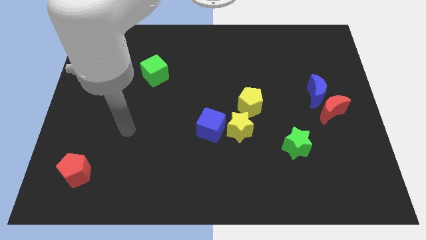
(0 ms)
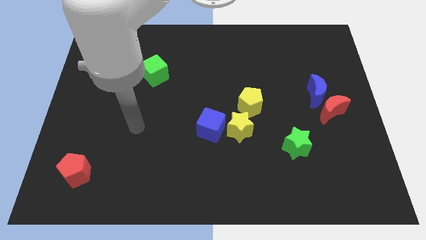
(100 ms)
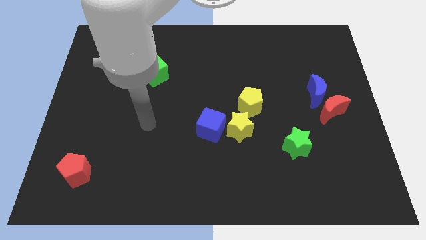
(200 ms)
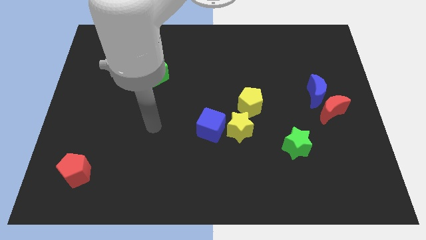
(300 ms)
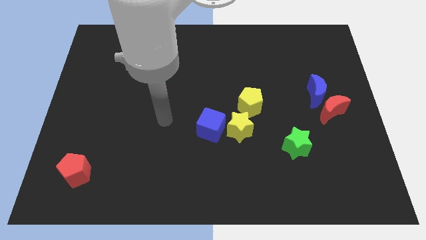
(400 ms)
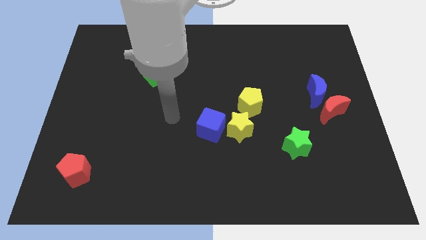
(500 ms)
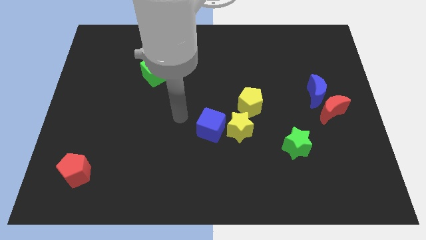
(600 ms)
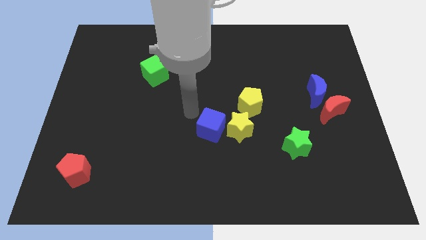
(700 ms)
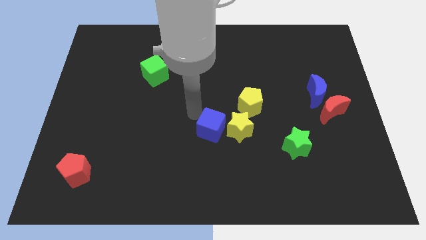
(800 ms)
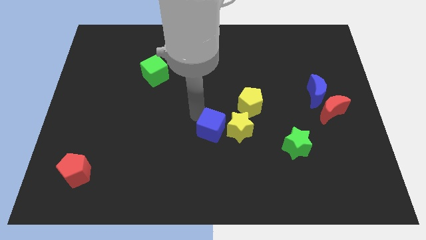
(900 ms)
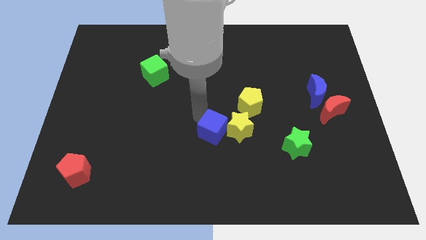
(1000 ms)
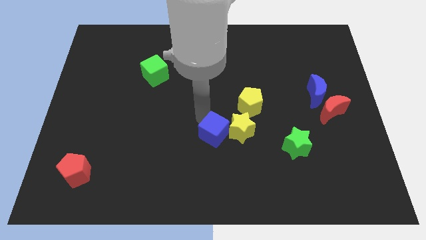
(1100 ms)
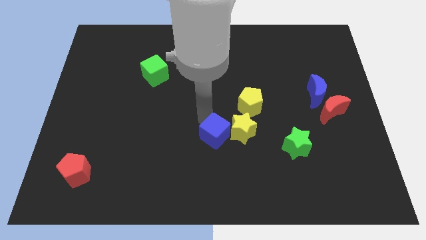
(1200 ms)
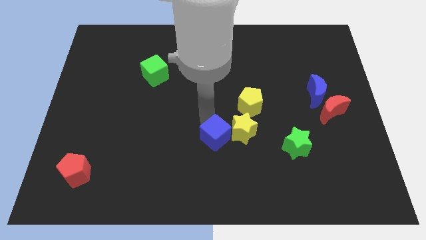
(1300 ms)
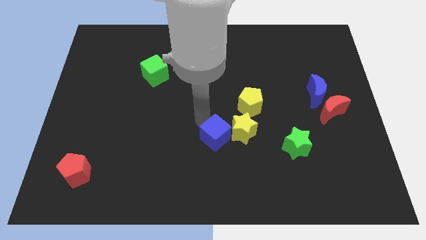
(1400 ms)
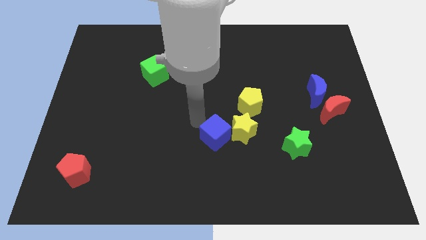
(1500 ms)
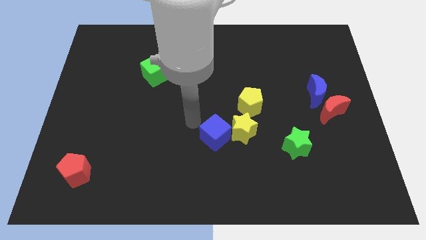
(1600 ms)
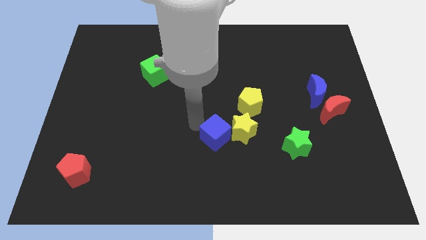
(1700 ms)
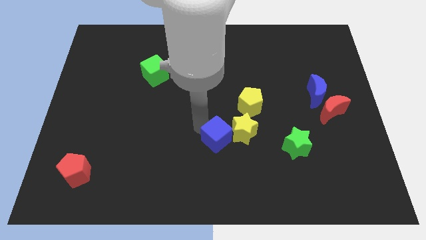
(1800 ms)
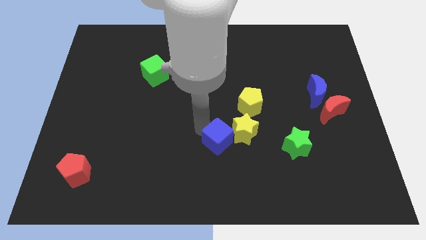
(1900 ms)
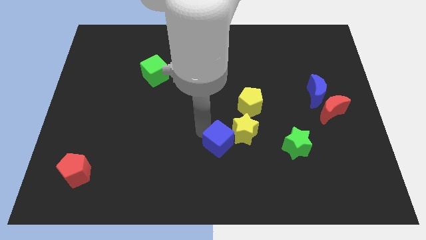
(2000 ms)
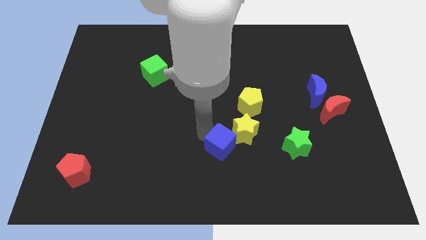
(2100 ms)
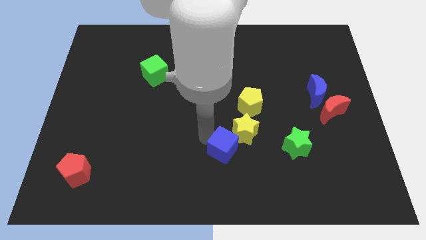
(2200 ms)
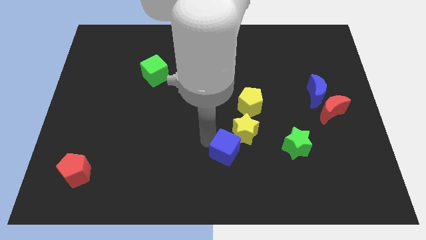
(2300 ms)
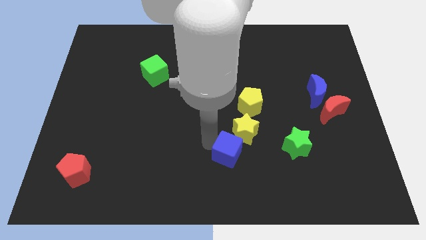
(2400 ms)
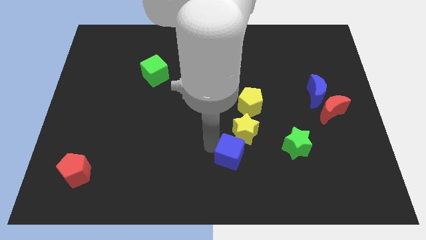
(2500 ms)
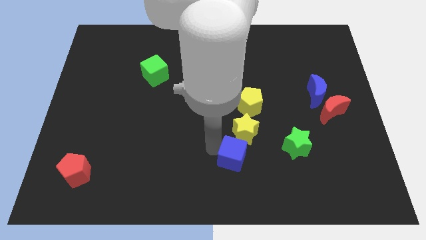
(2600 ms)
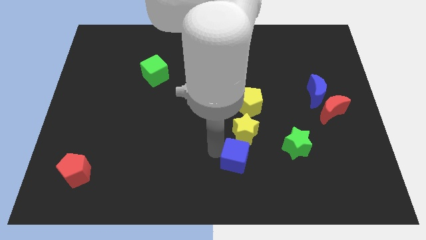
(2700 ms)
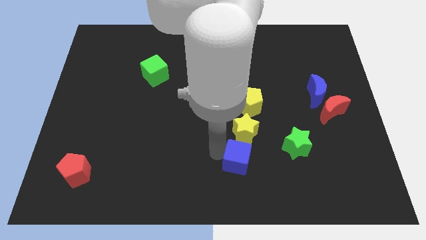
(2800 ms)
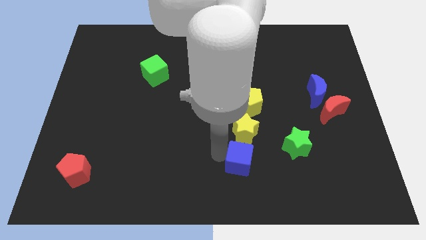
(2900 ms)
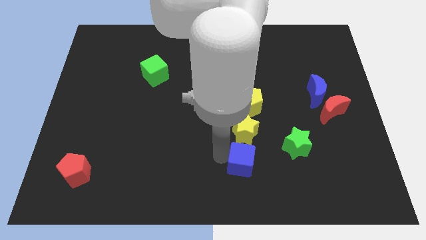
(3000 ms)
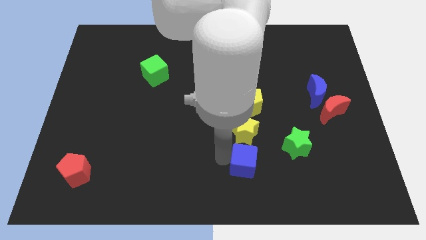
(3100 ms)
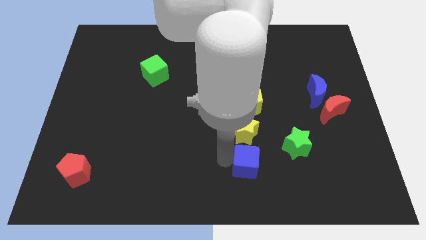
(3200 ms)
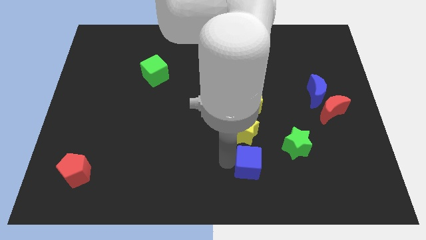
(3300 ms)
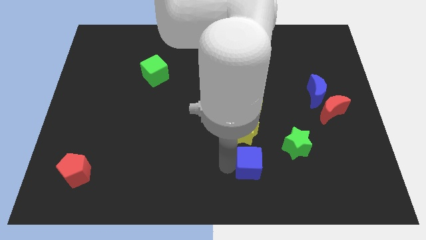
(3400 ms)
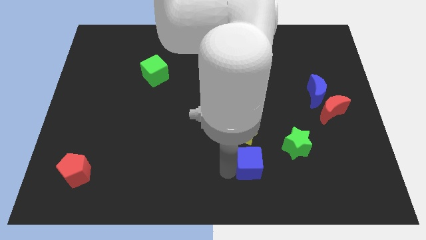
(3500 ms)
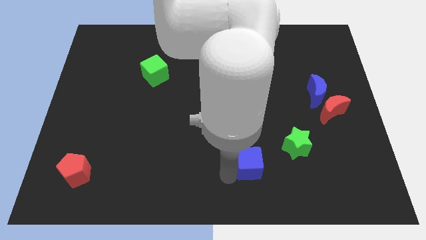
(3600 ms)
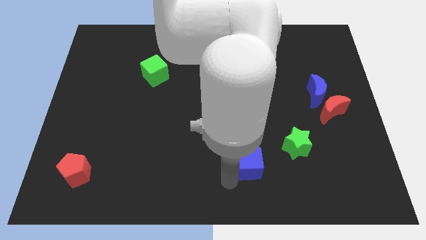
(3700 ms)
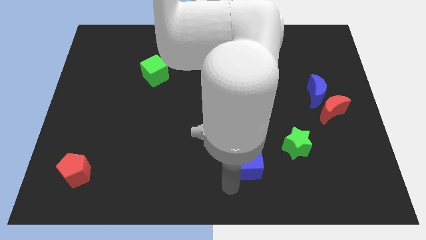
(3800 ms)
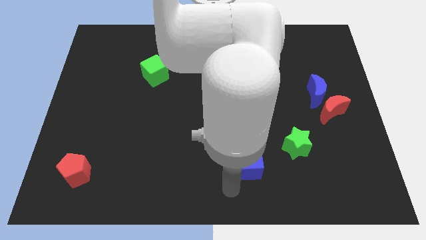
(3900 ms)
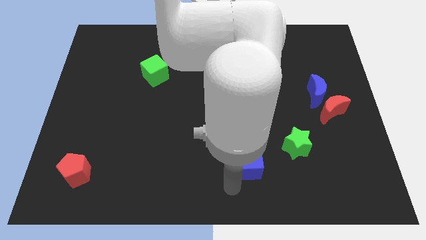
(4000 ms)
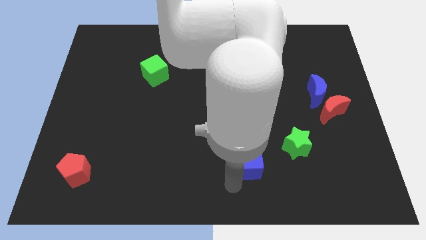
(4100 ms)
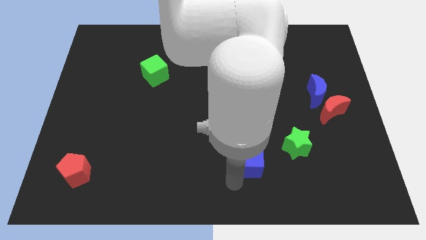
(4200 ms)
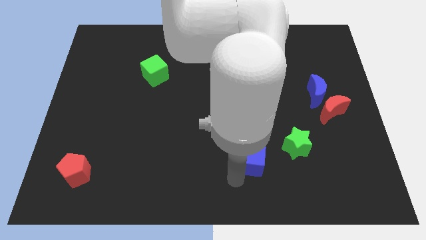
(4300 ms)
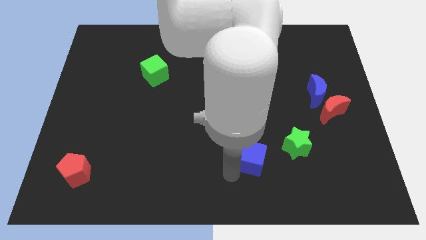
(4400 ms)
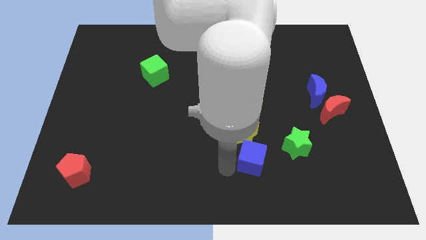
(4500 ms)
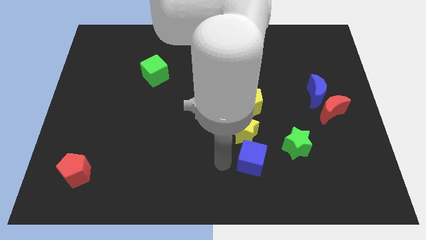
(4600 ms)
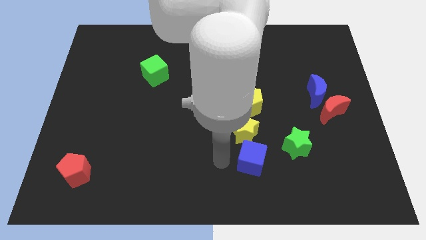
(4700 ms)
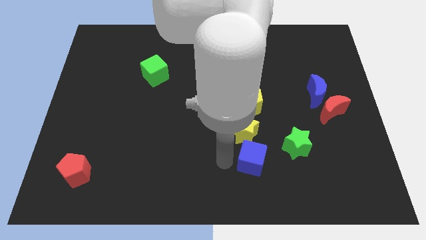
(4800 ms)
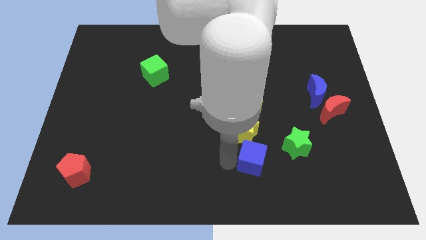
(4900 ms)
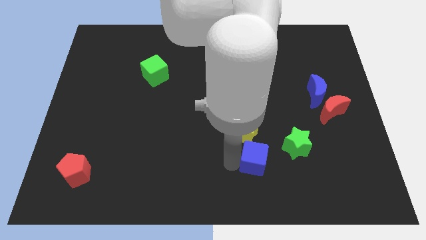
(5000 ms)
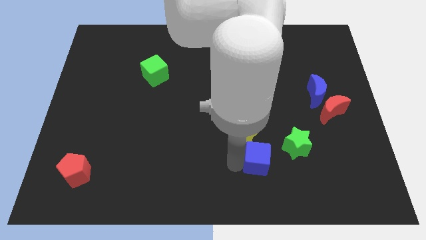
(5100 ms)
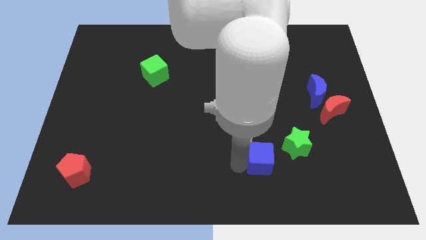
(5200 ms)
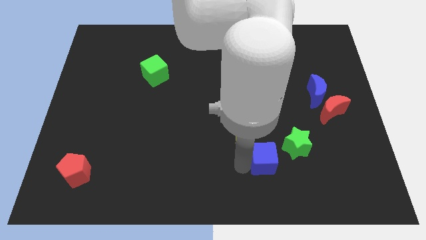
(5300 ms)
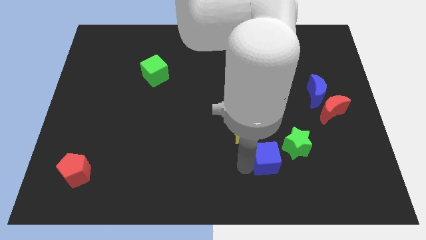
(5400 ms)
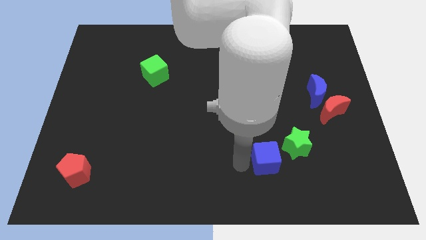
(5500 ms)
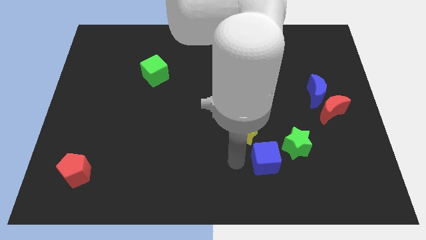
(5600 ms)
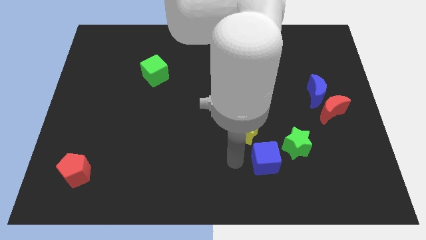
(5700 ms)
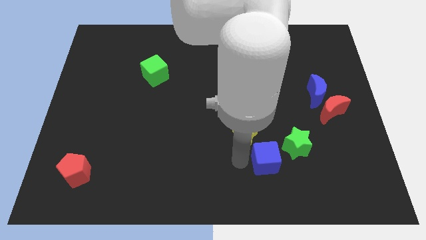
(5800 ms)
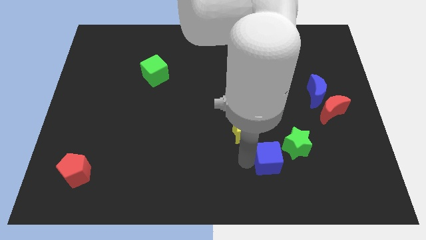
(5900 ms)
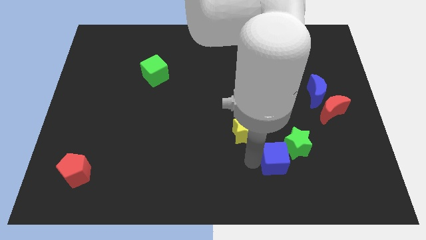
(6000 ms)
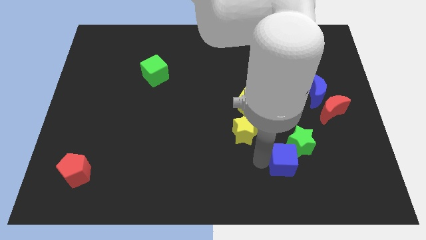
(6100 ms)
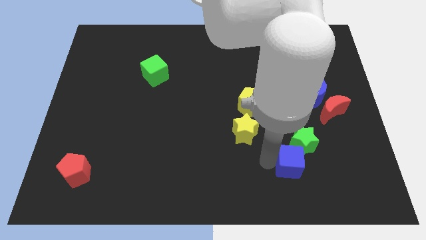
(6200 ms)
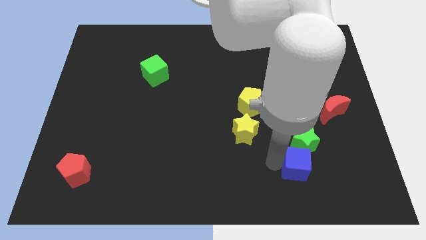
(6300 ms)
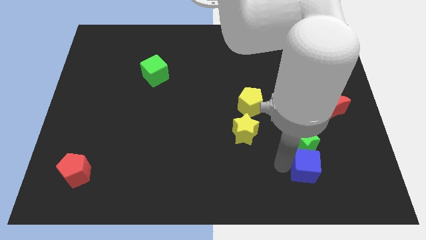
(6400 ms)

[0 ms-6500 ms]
move the blue cube diagonally down and to the right of the green star

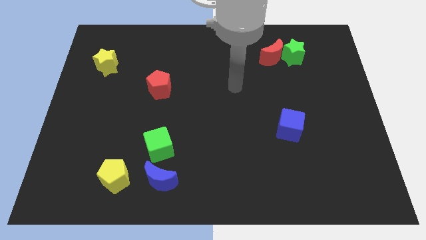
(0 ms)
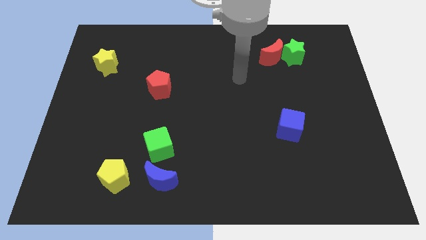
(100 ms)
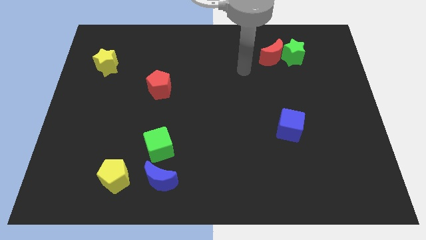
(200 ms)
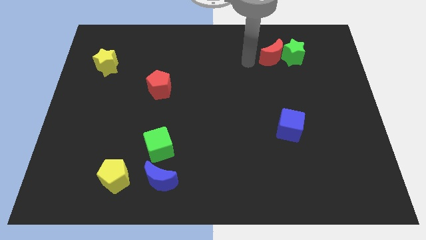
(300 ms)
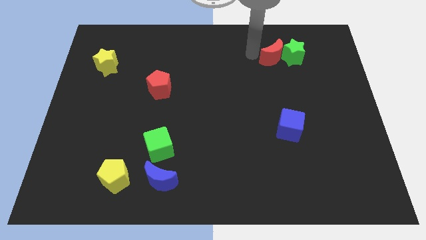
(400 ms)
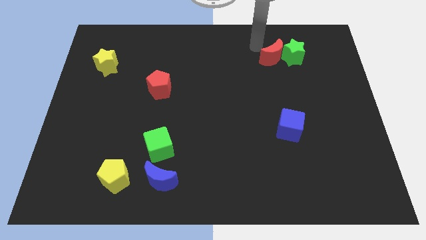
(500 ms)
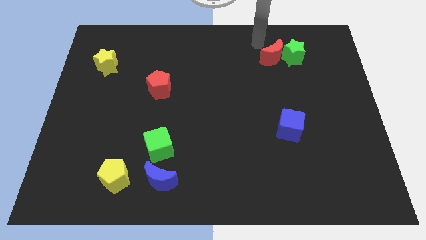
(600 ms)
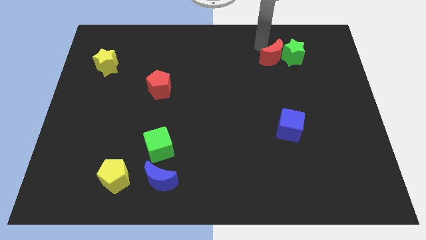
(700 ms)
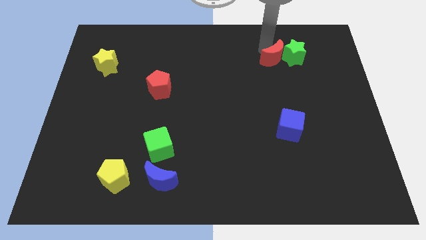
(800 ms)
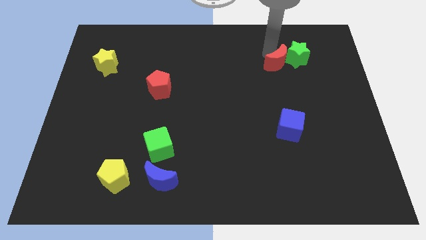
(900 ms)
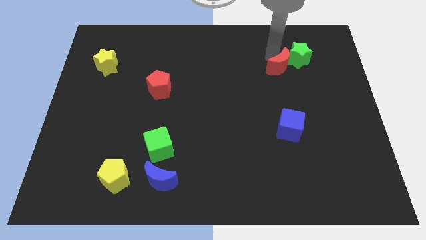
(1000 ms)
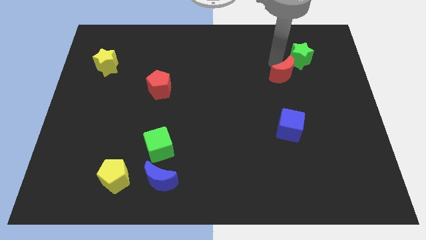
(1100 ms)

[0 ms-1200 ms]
put the red moon to the bottom side of the green star
